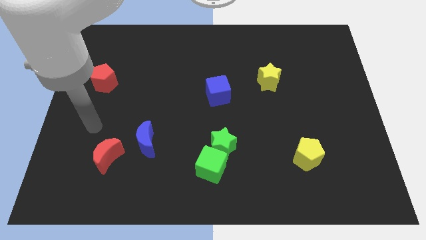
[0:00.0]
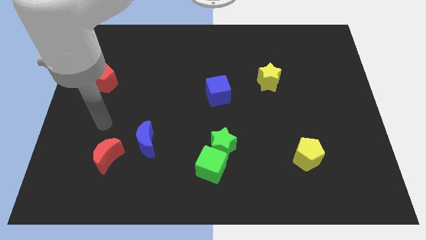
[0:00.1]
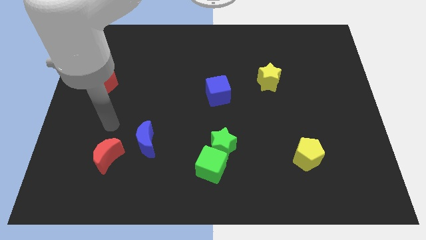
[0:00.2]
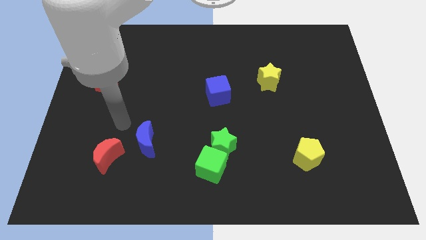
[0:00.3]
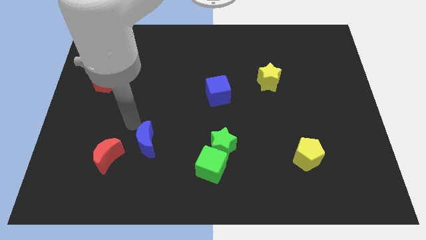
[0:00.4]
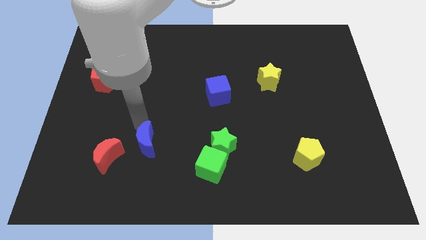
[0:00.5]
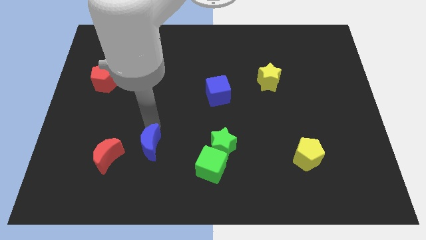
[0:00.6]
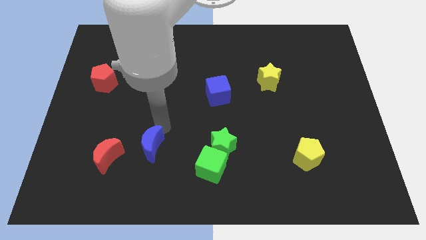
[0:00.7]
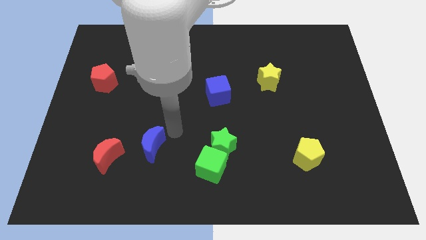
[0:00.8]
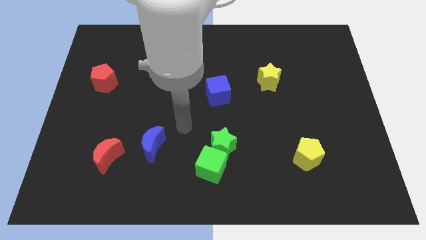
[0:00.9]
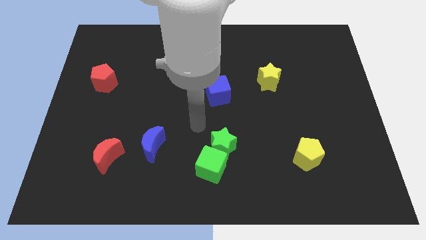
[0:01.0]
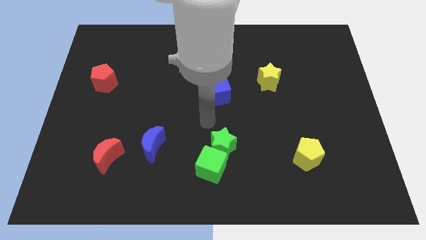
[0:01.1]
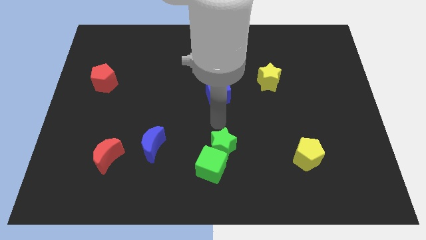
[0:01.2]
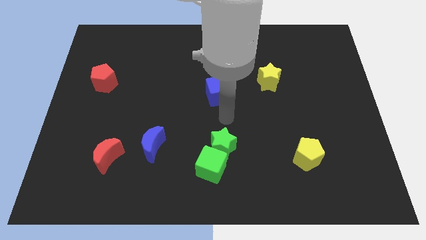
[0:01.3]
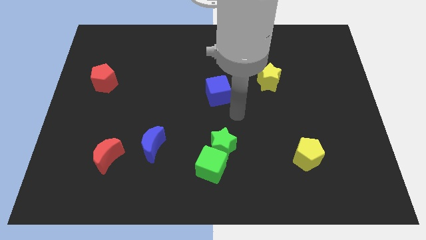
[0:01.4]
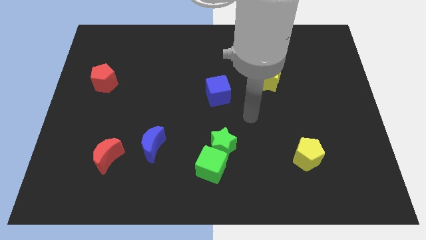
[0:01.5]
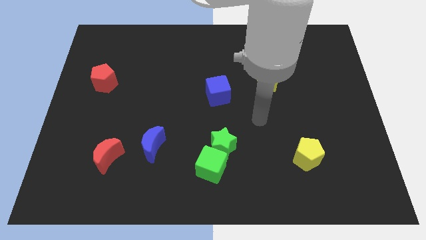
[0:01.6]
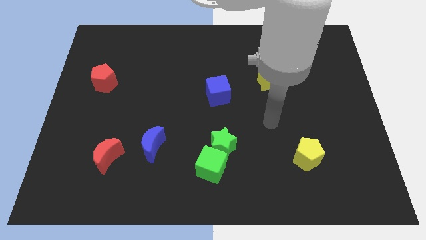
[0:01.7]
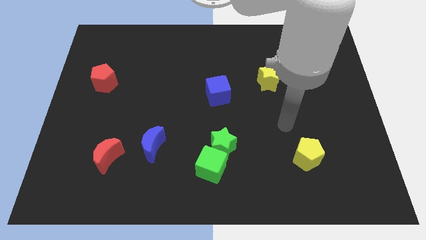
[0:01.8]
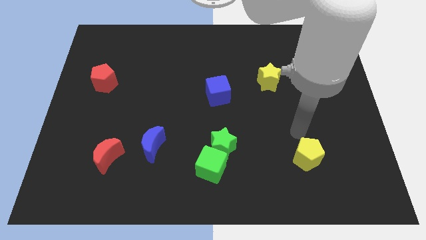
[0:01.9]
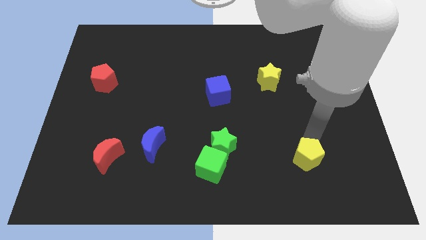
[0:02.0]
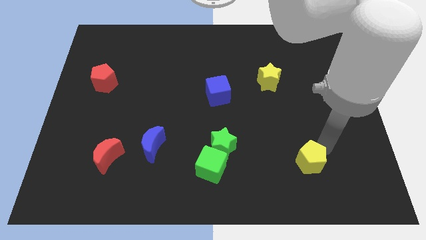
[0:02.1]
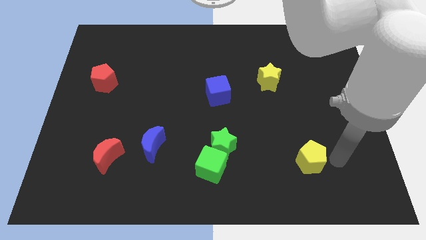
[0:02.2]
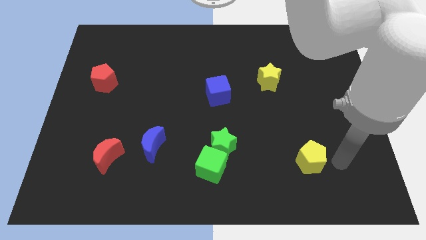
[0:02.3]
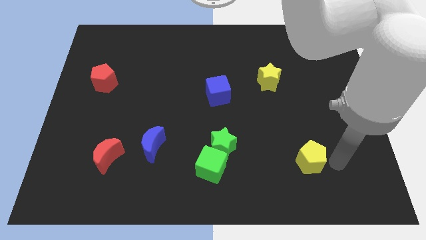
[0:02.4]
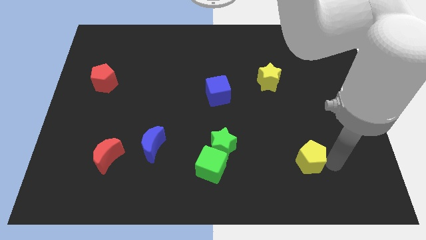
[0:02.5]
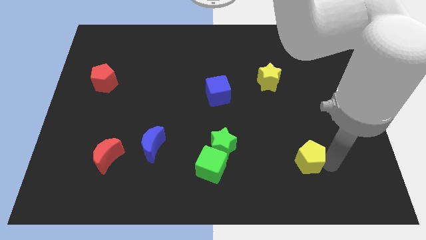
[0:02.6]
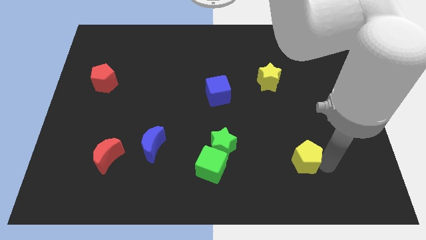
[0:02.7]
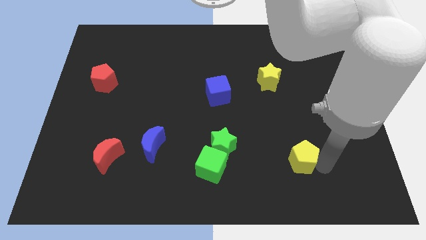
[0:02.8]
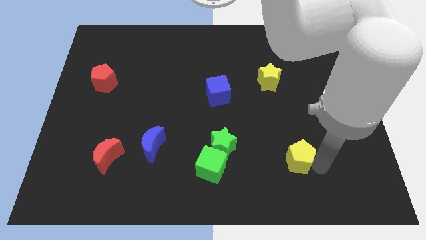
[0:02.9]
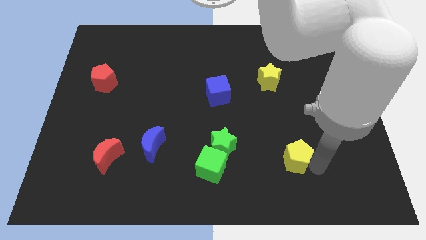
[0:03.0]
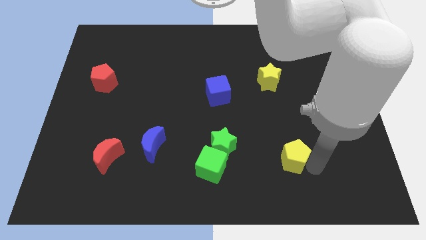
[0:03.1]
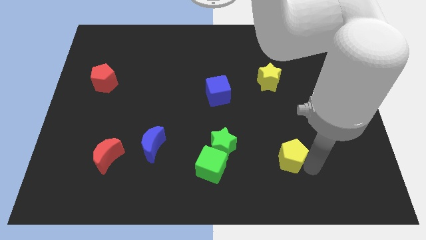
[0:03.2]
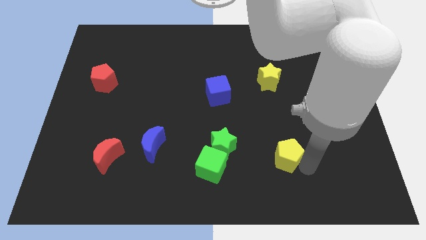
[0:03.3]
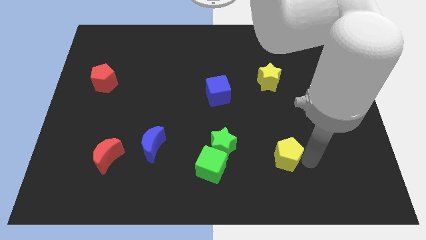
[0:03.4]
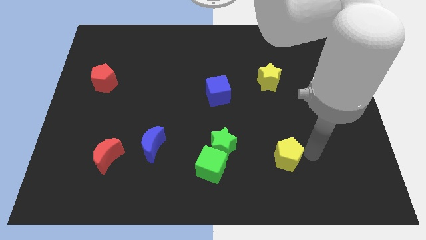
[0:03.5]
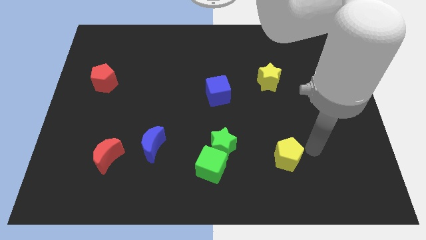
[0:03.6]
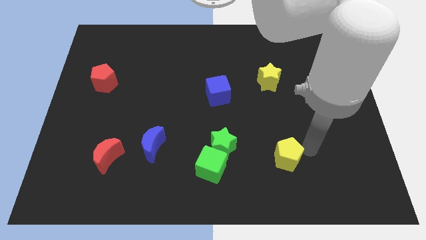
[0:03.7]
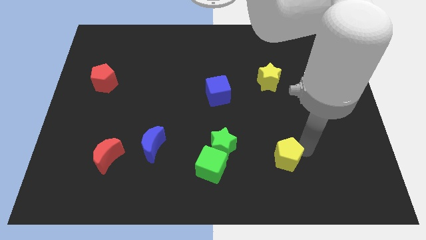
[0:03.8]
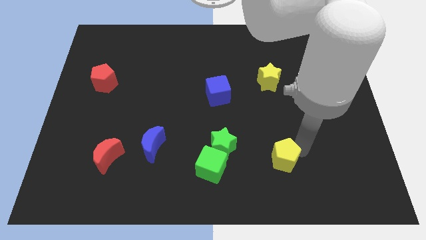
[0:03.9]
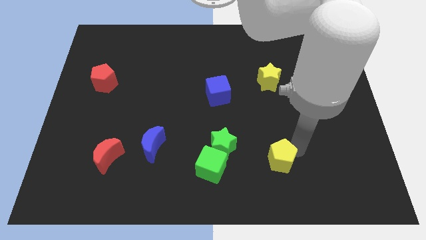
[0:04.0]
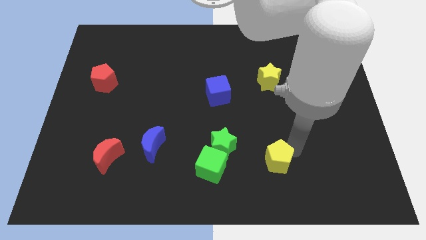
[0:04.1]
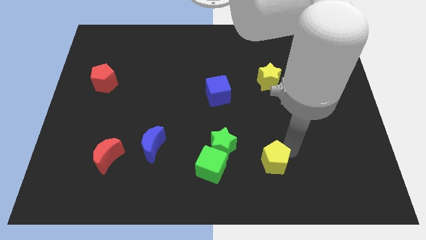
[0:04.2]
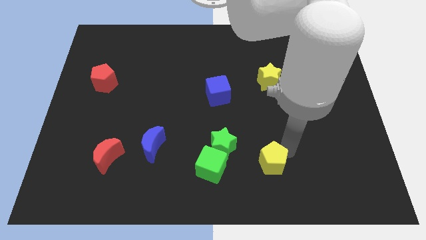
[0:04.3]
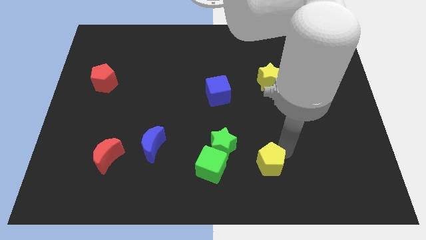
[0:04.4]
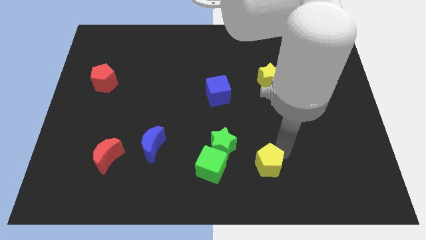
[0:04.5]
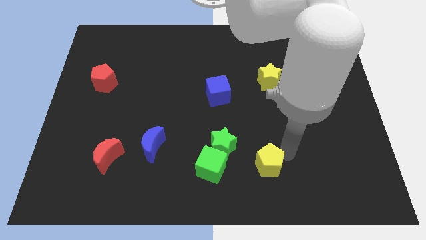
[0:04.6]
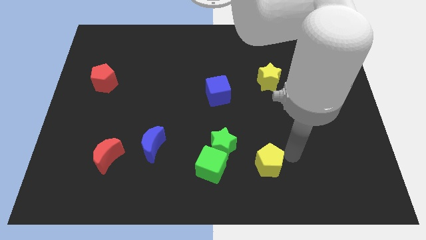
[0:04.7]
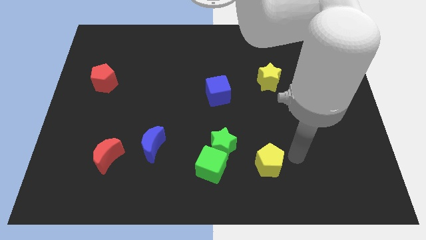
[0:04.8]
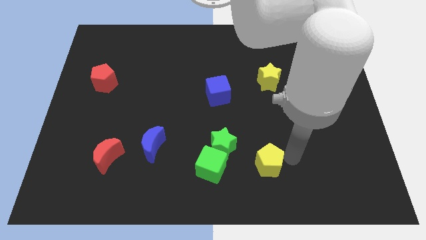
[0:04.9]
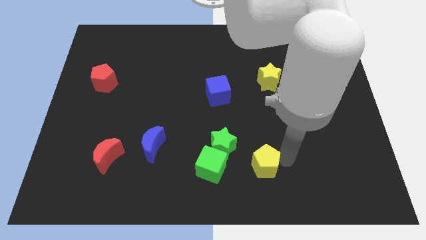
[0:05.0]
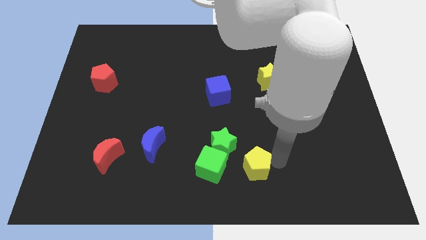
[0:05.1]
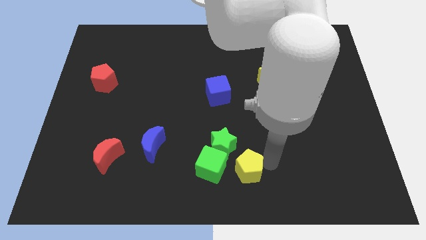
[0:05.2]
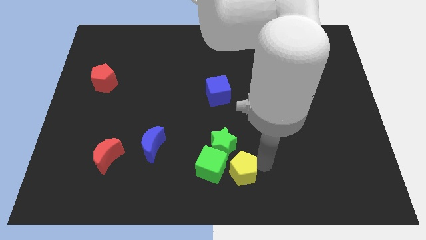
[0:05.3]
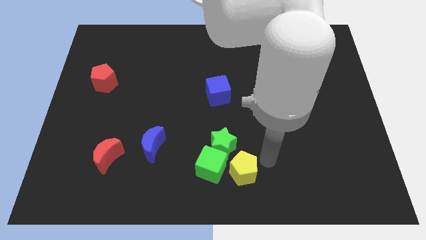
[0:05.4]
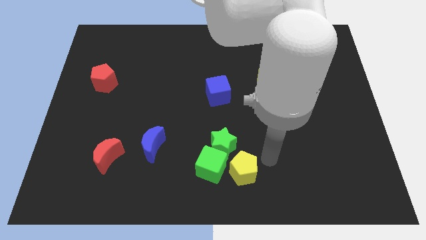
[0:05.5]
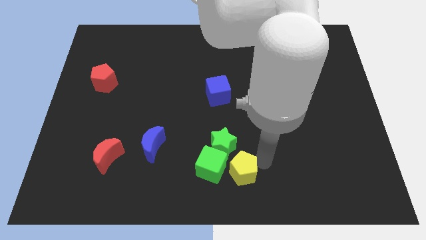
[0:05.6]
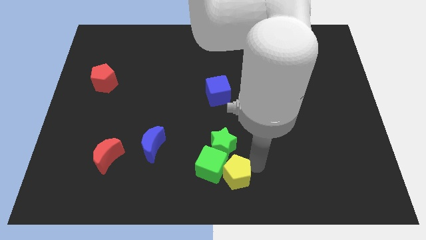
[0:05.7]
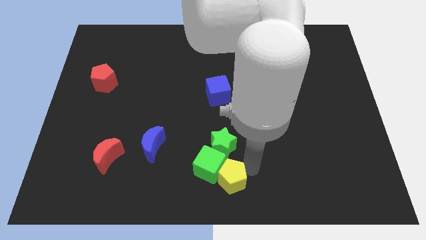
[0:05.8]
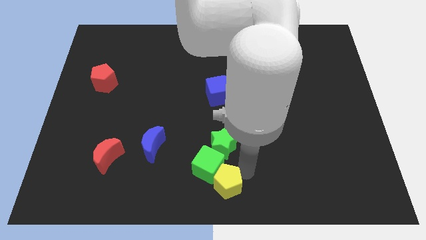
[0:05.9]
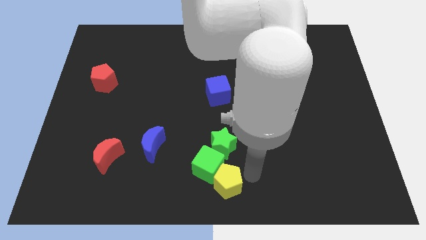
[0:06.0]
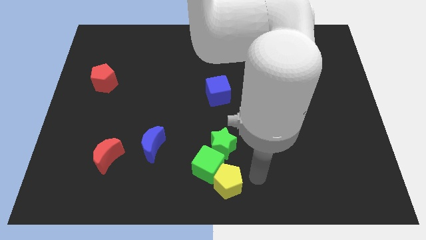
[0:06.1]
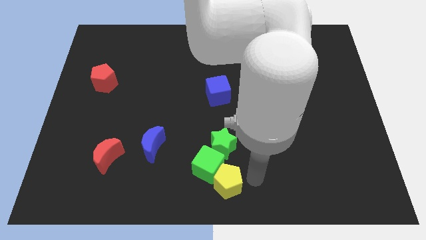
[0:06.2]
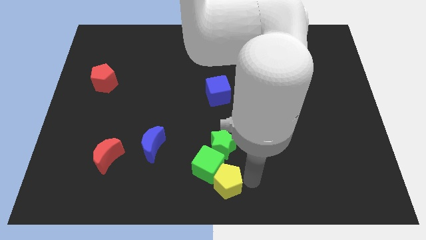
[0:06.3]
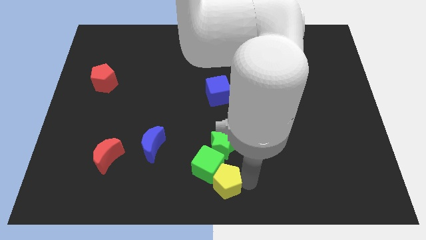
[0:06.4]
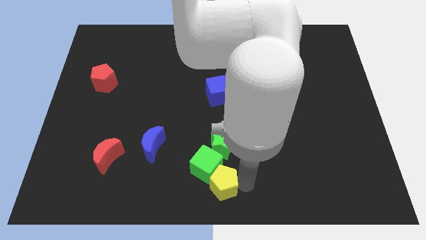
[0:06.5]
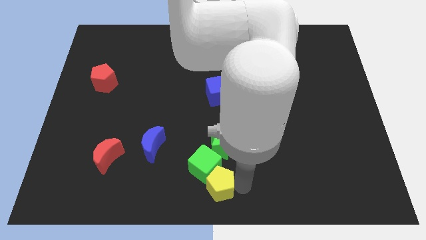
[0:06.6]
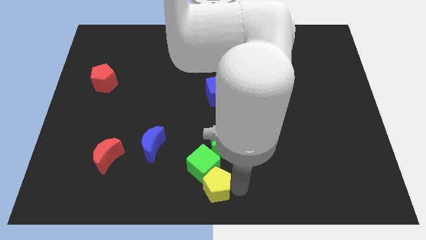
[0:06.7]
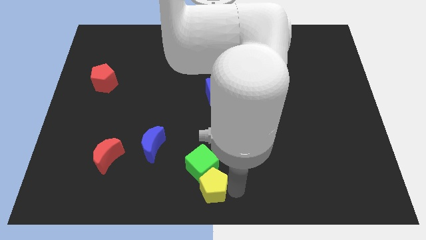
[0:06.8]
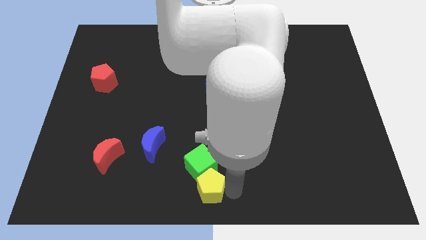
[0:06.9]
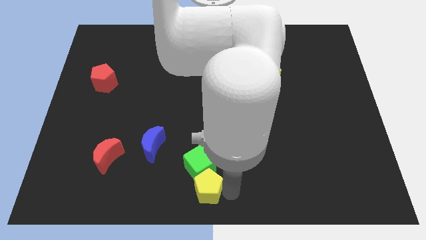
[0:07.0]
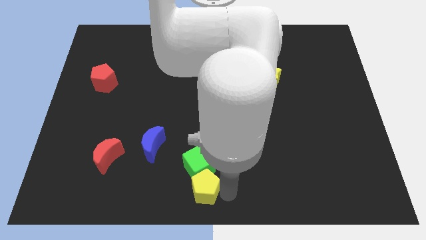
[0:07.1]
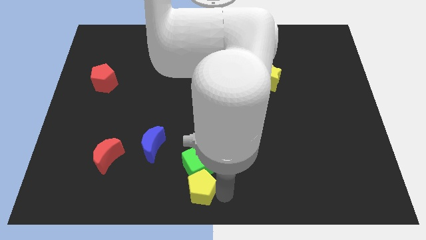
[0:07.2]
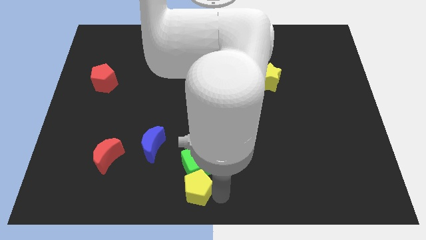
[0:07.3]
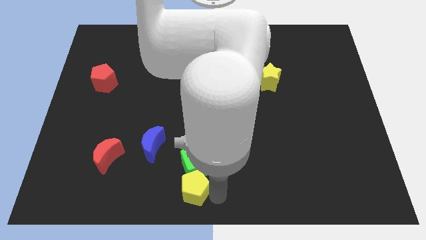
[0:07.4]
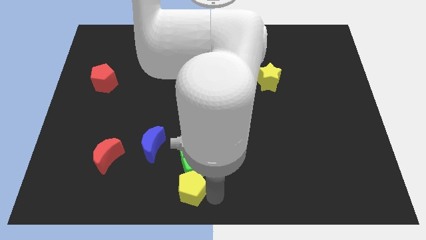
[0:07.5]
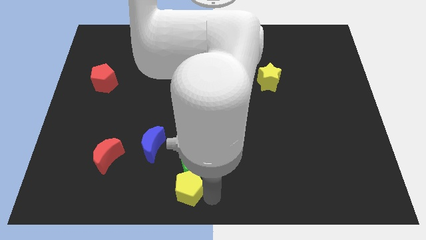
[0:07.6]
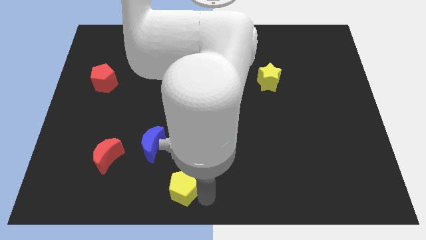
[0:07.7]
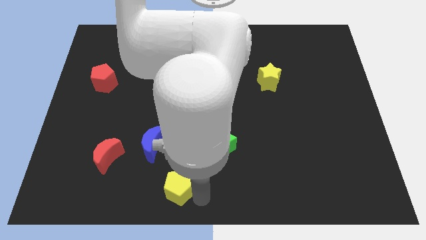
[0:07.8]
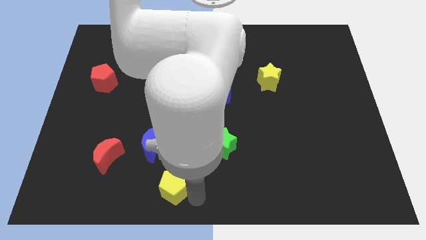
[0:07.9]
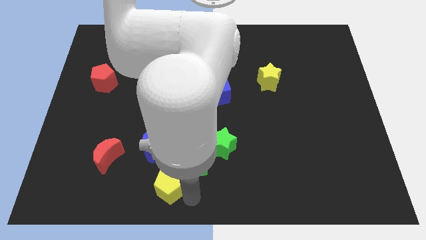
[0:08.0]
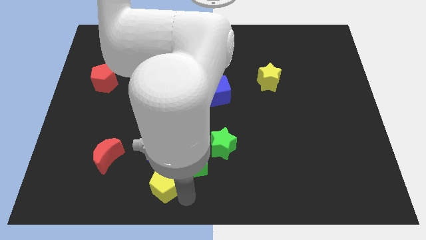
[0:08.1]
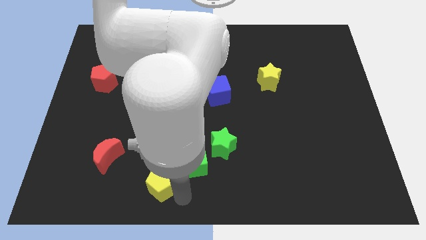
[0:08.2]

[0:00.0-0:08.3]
slide the yellow pentagon left of the green cube
